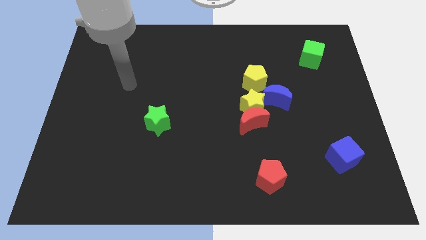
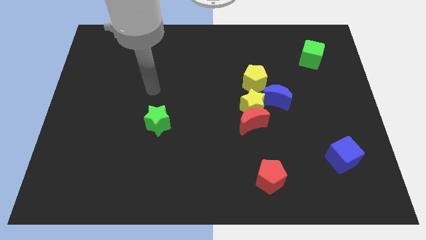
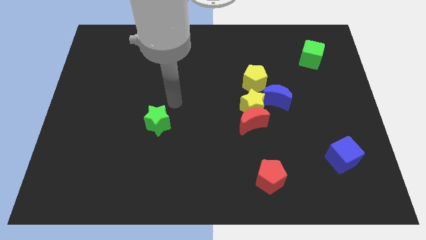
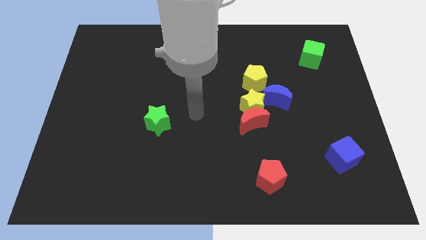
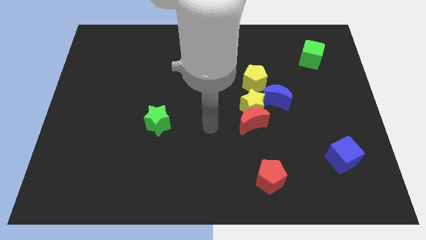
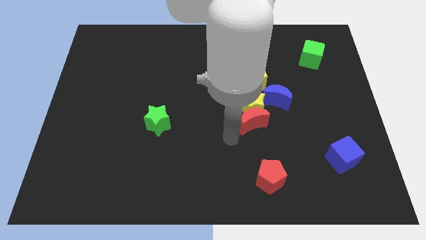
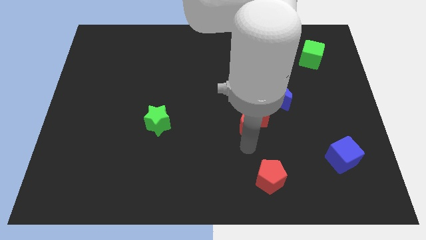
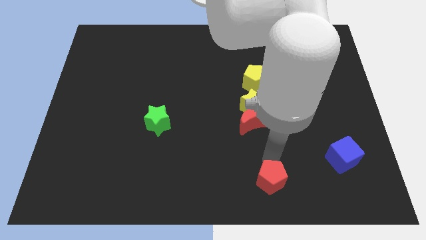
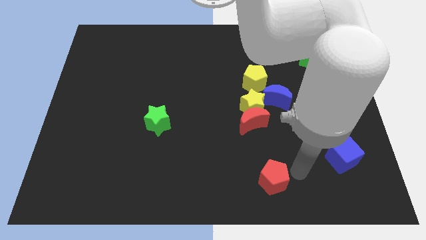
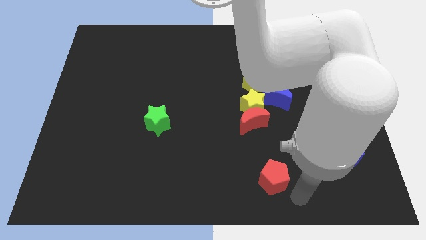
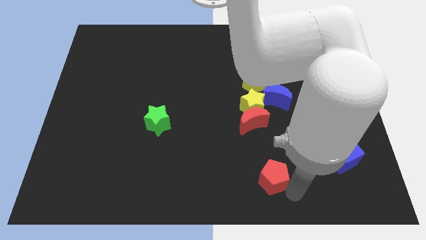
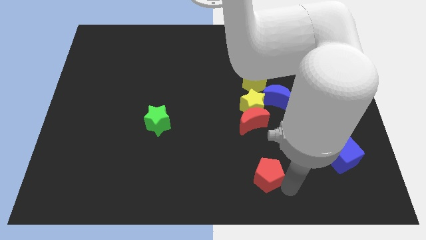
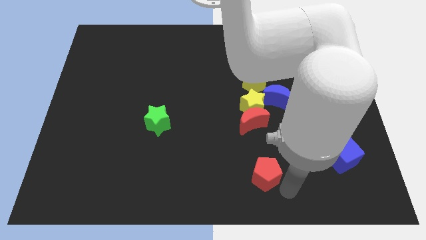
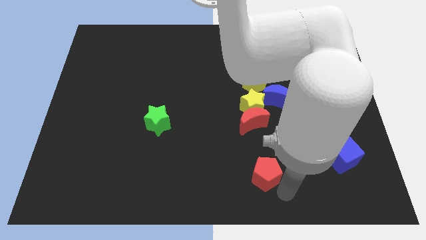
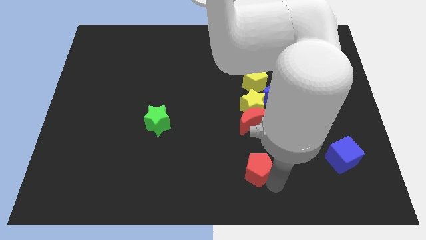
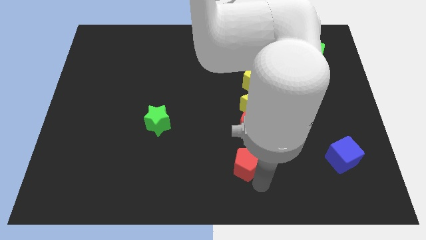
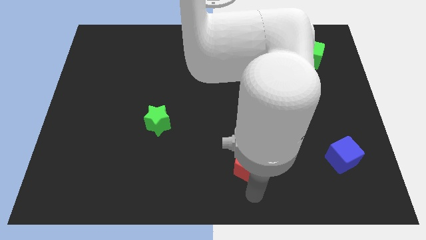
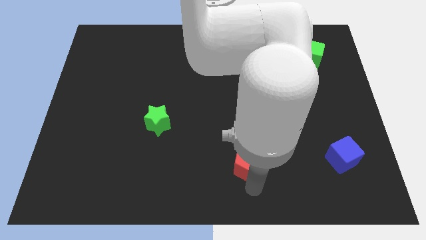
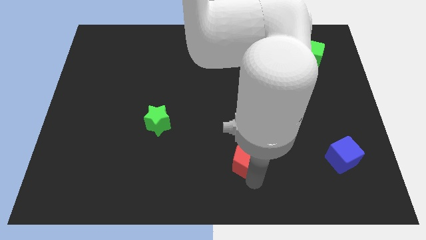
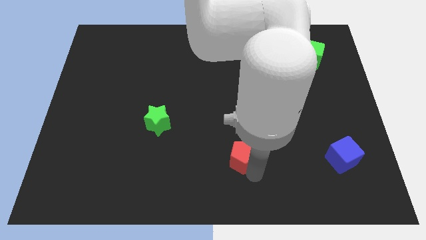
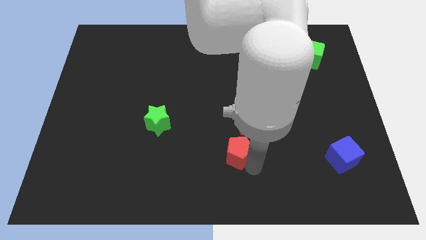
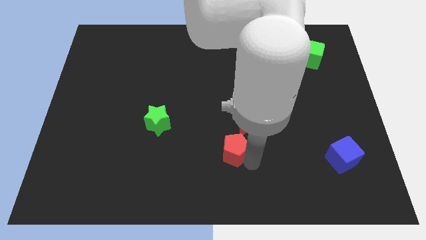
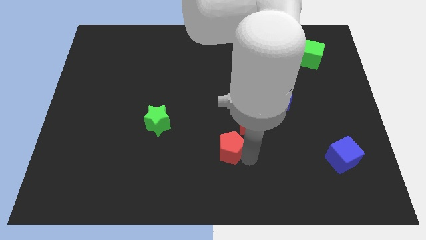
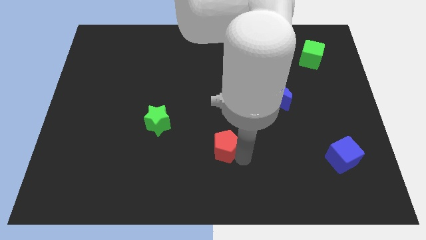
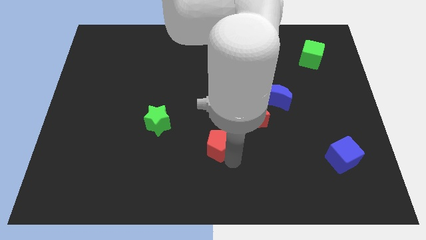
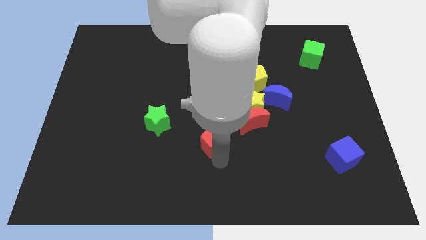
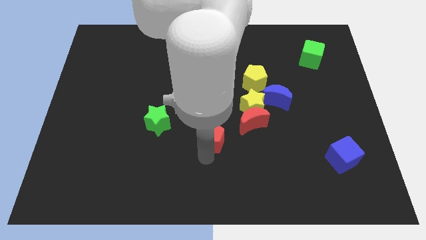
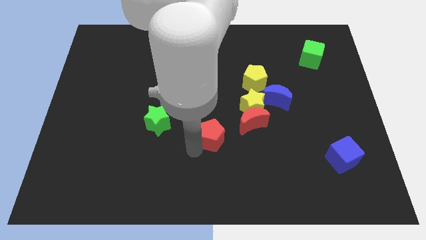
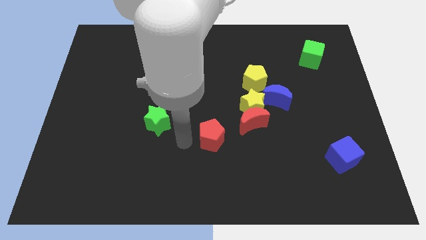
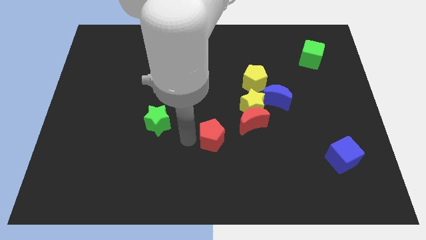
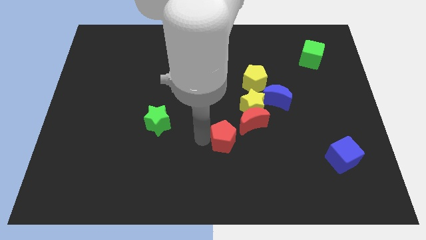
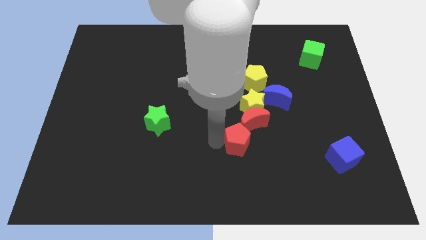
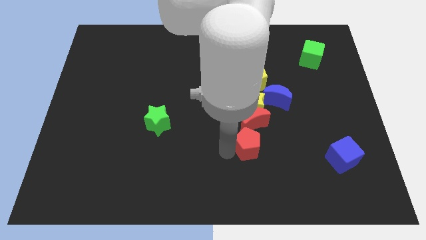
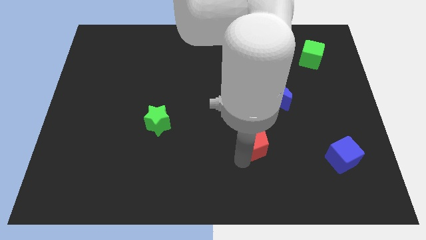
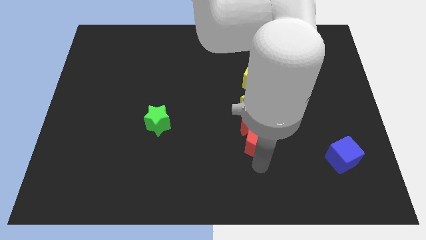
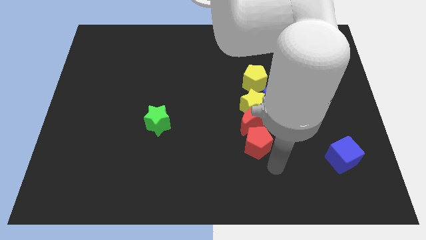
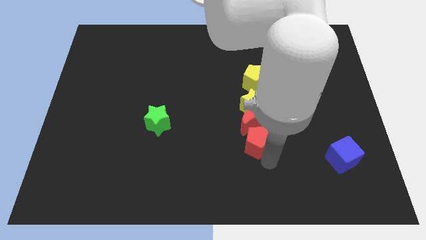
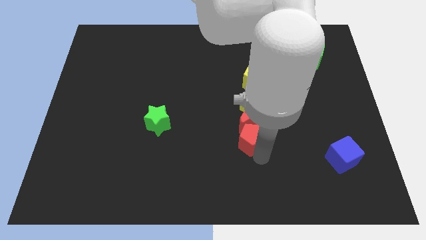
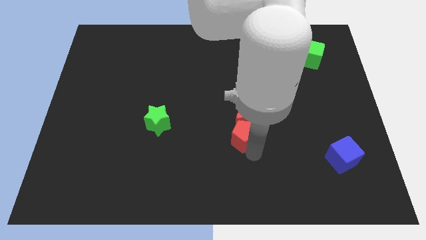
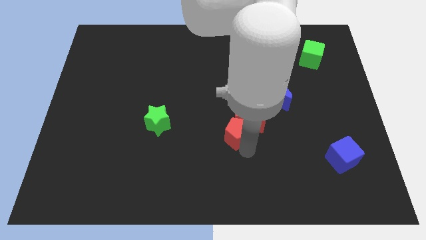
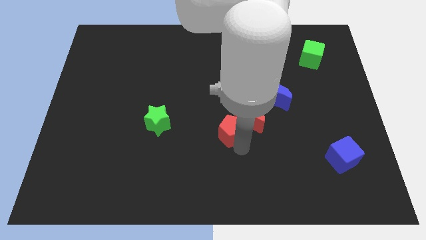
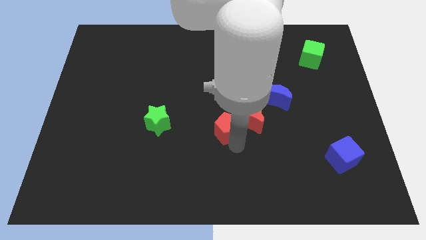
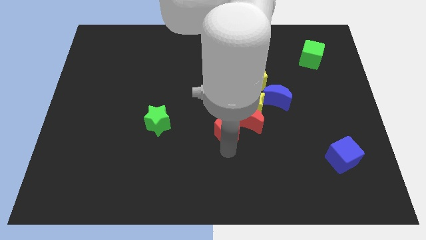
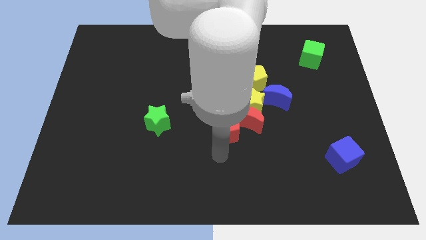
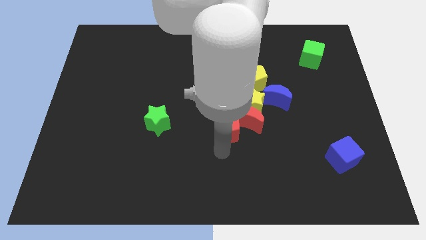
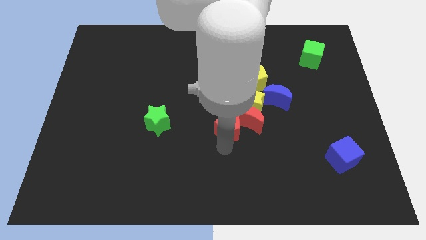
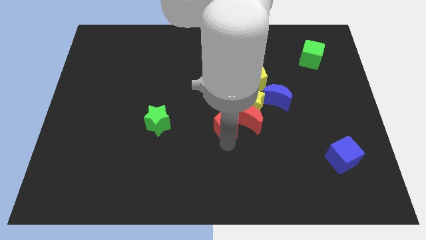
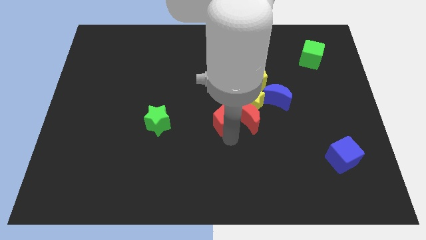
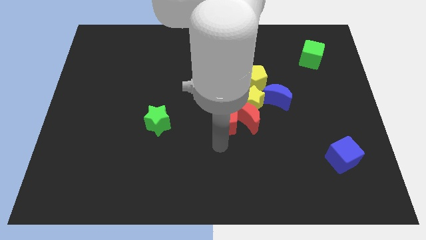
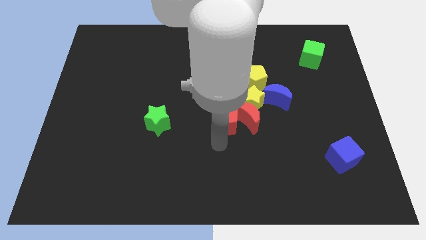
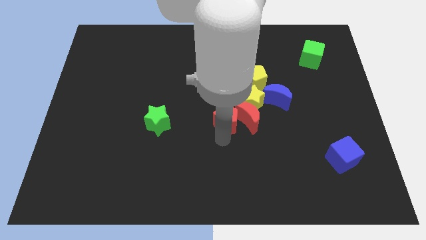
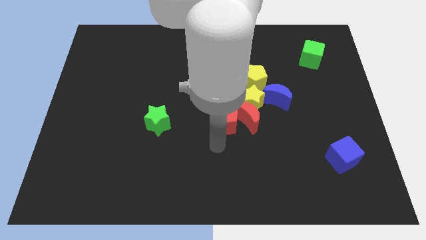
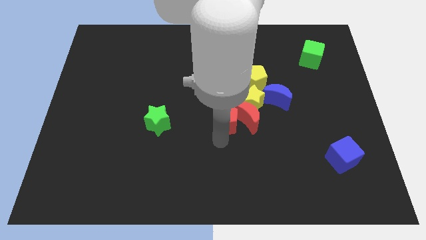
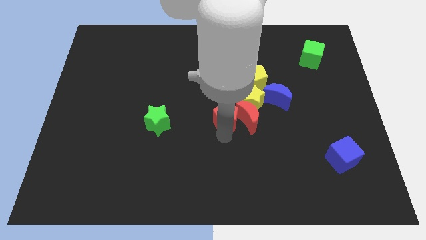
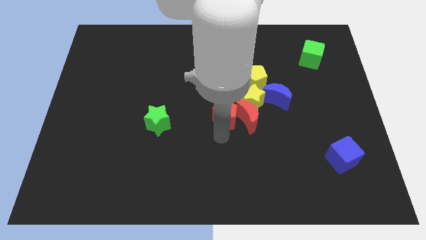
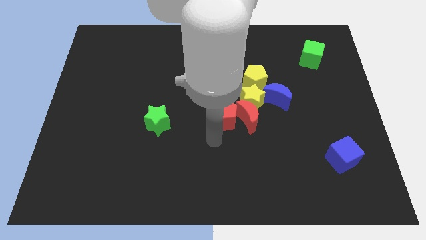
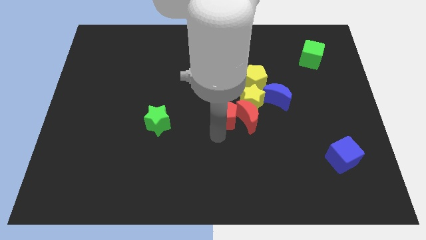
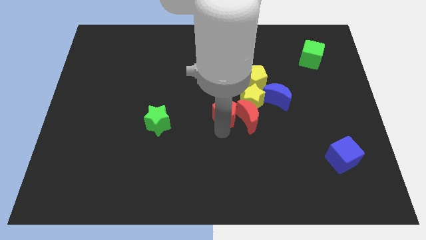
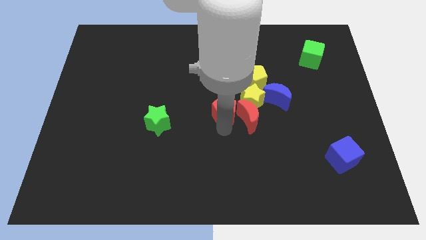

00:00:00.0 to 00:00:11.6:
slide the red pentagon to the left of the blue moon
